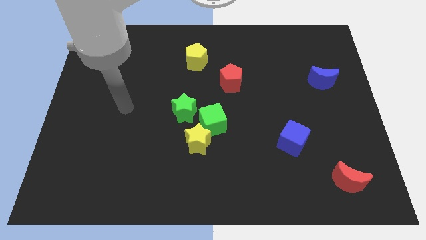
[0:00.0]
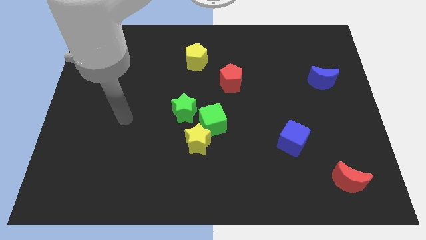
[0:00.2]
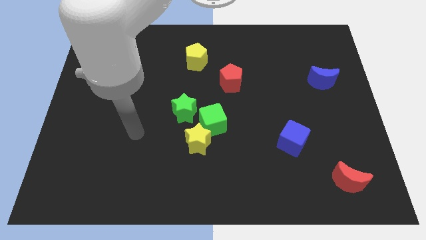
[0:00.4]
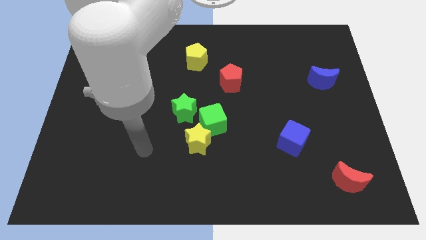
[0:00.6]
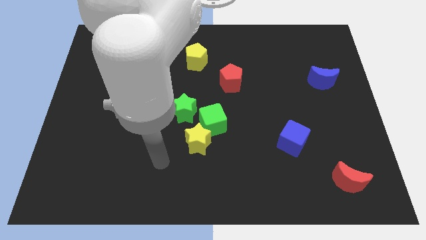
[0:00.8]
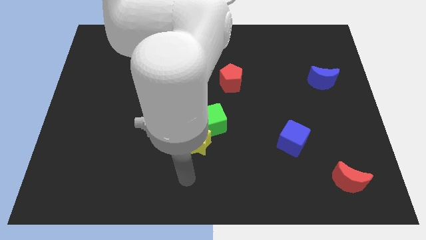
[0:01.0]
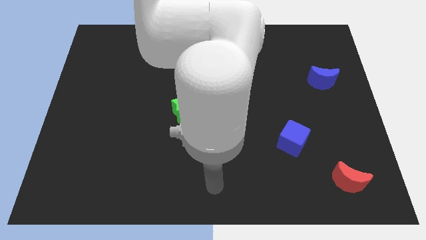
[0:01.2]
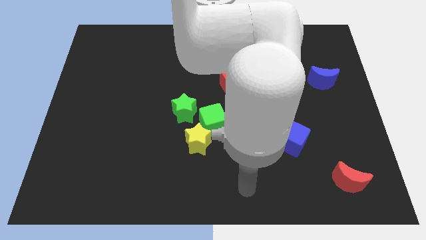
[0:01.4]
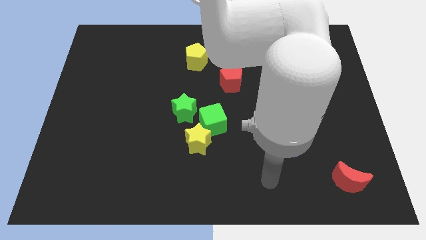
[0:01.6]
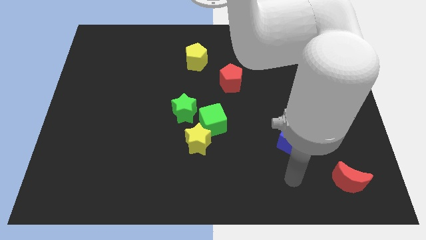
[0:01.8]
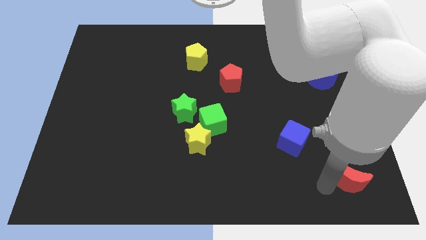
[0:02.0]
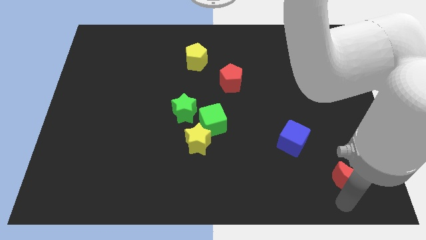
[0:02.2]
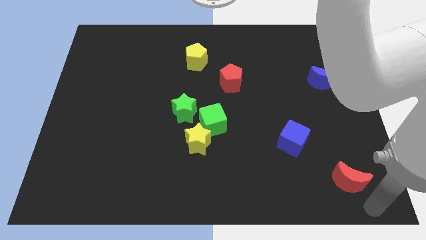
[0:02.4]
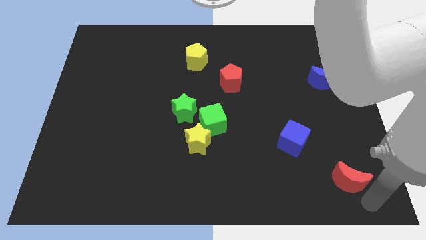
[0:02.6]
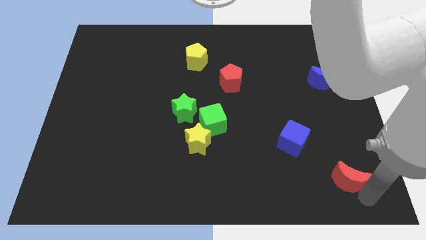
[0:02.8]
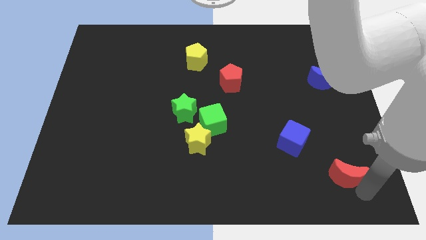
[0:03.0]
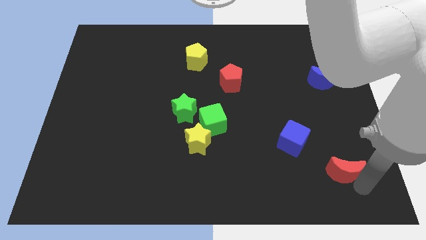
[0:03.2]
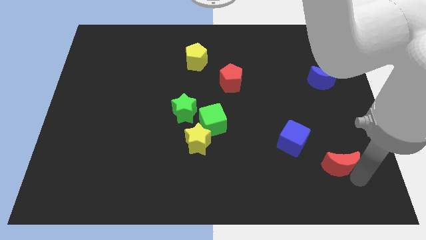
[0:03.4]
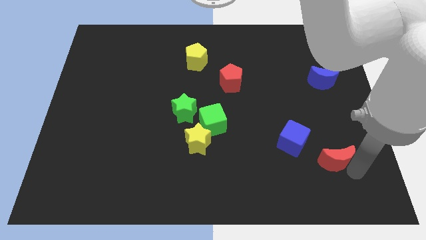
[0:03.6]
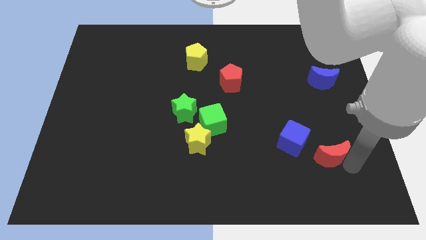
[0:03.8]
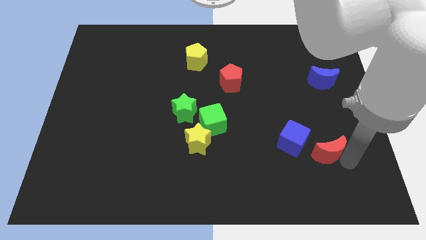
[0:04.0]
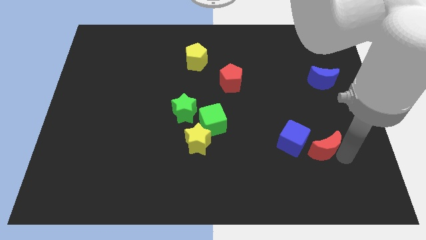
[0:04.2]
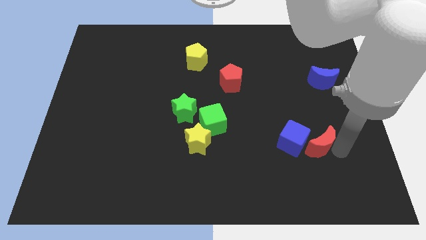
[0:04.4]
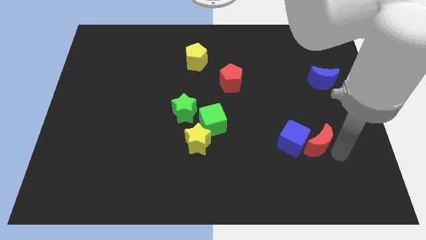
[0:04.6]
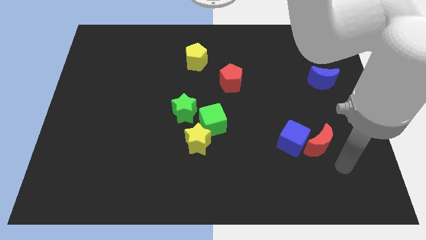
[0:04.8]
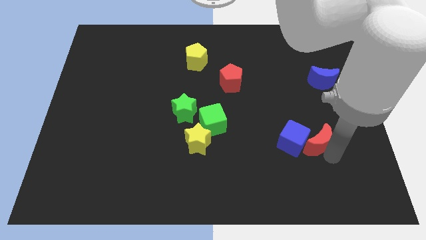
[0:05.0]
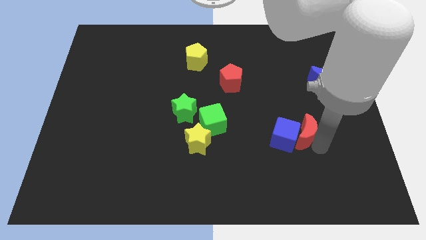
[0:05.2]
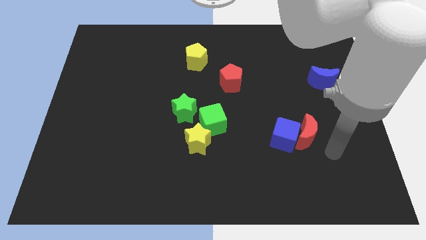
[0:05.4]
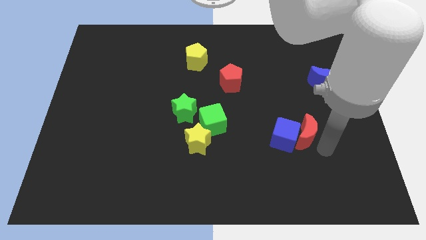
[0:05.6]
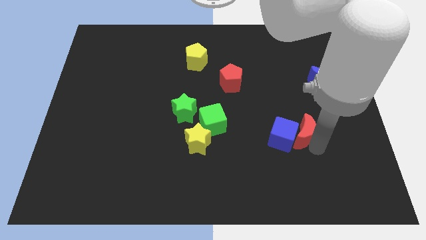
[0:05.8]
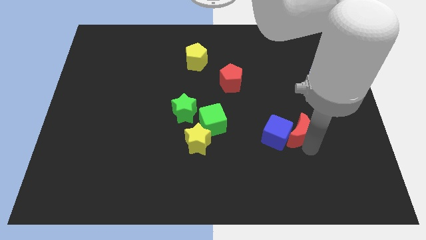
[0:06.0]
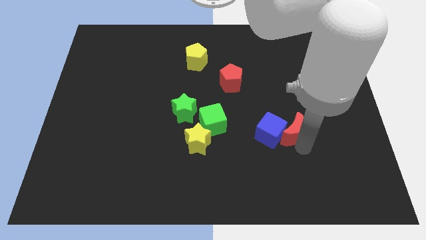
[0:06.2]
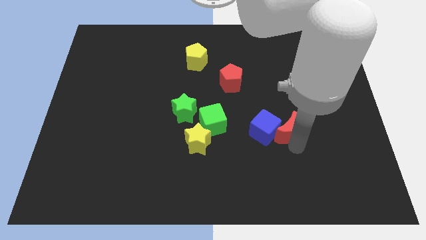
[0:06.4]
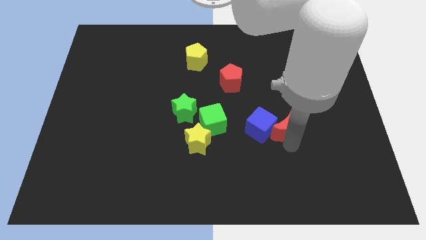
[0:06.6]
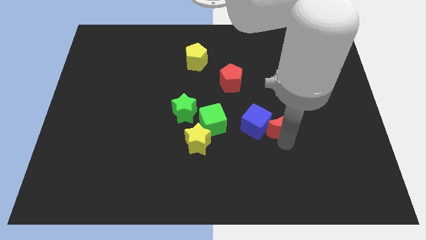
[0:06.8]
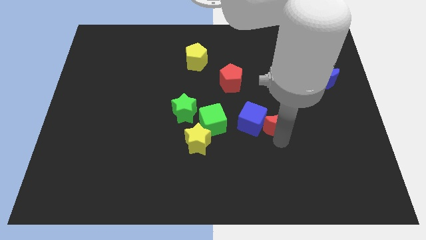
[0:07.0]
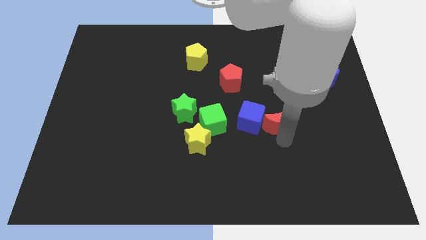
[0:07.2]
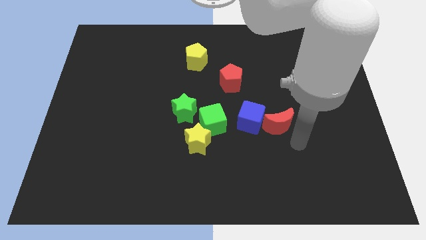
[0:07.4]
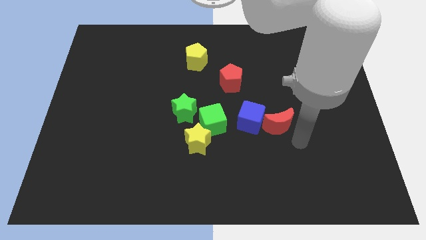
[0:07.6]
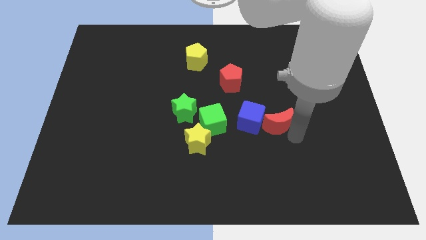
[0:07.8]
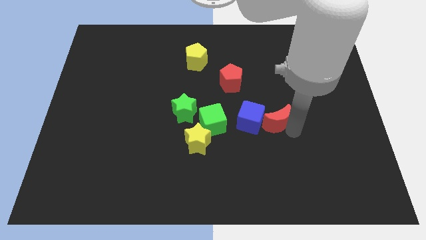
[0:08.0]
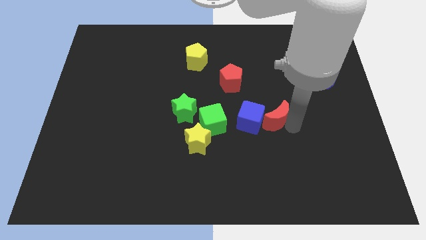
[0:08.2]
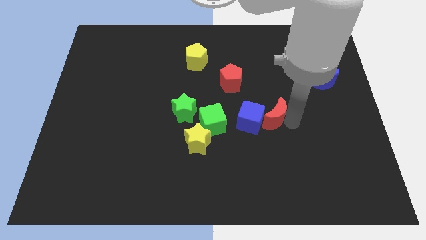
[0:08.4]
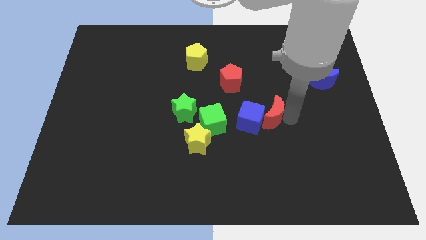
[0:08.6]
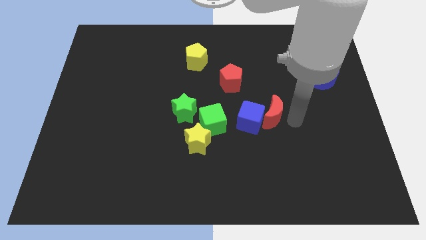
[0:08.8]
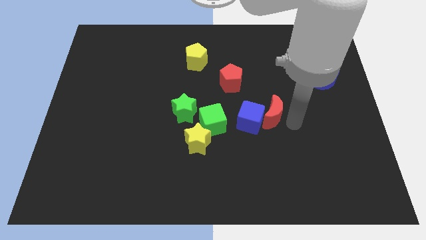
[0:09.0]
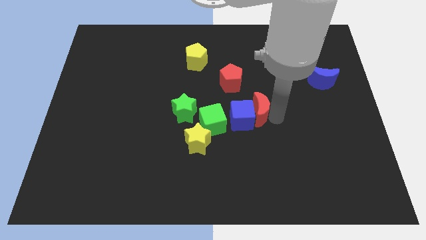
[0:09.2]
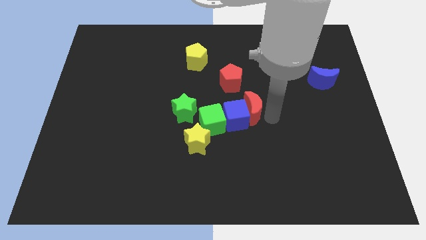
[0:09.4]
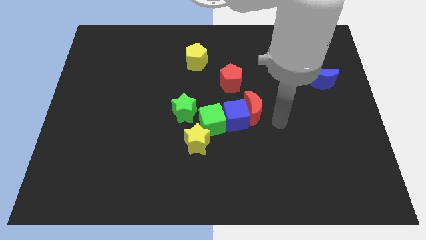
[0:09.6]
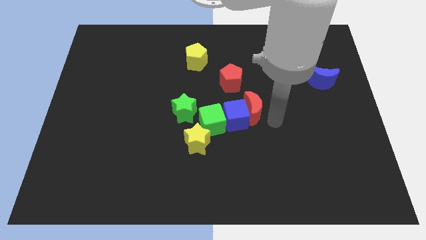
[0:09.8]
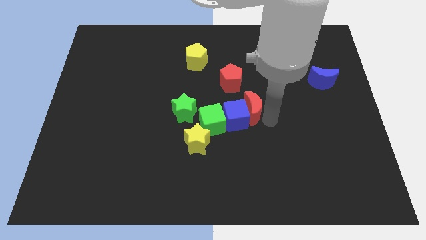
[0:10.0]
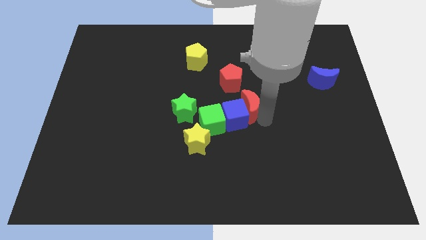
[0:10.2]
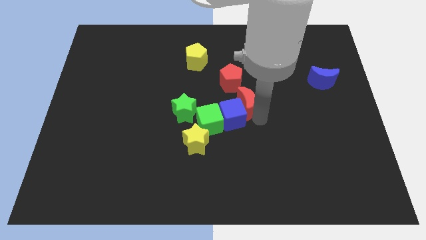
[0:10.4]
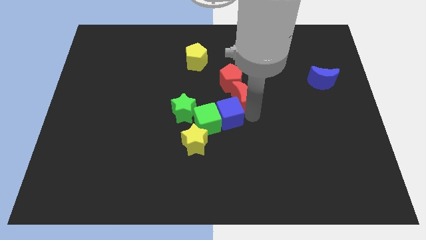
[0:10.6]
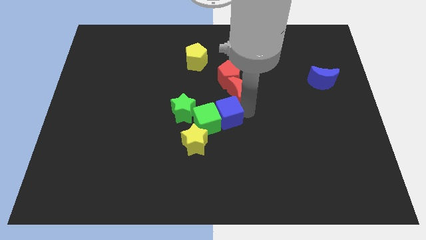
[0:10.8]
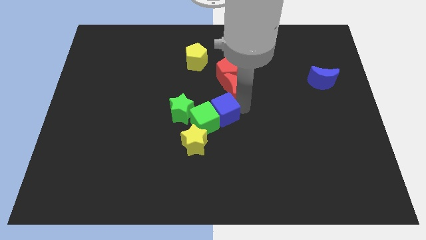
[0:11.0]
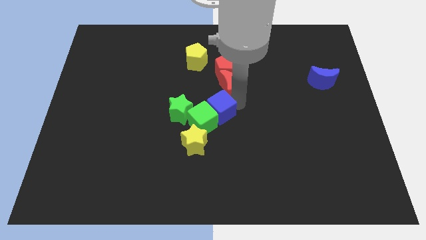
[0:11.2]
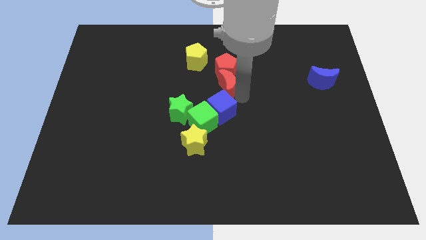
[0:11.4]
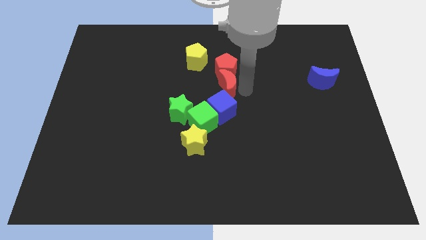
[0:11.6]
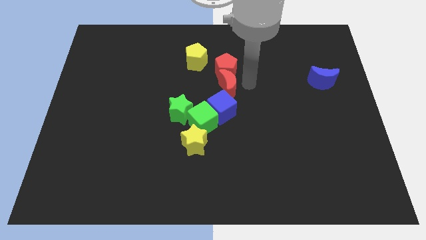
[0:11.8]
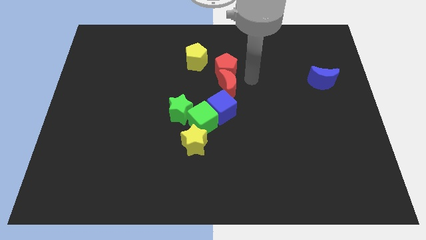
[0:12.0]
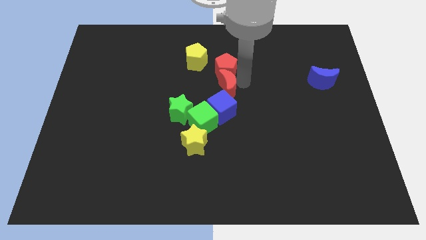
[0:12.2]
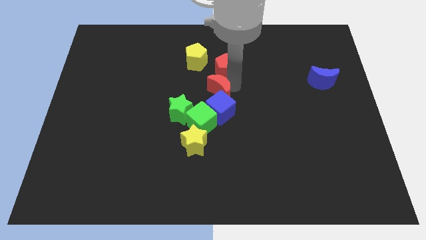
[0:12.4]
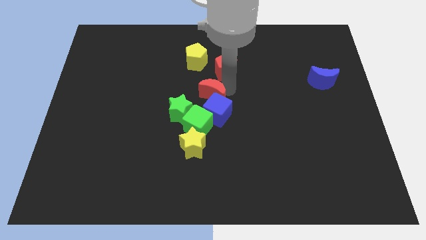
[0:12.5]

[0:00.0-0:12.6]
push the red moon to the bottom side of the yellow pentagon

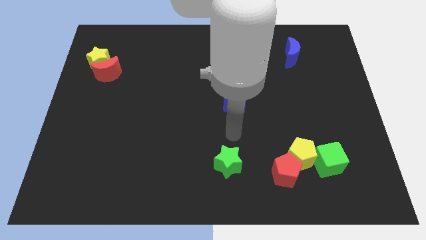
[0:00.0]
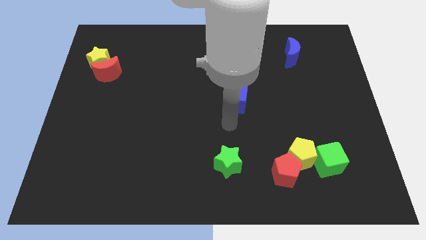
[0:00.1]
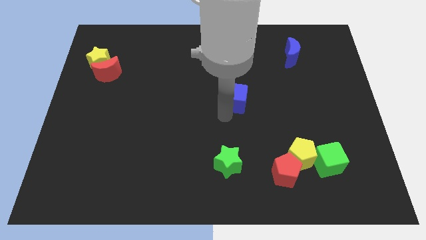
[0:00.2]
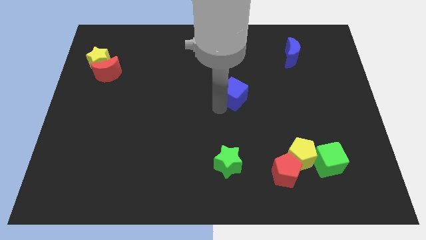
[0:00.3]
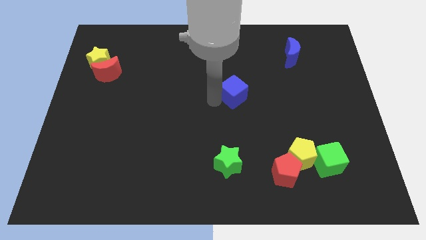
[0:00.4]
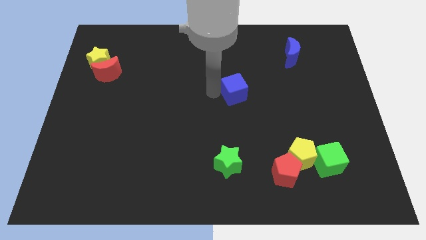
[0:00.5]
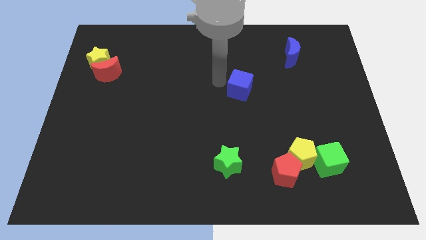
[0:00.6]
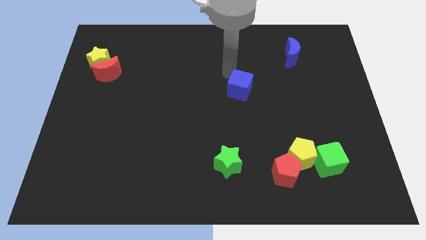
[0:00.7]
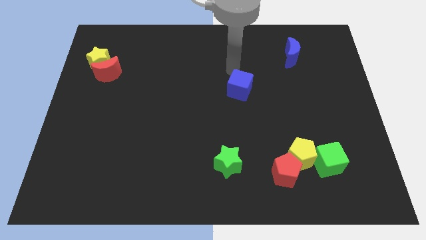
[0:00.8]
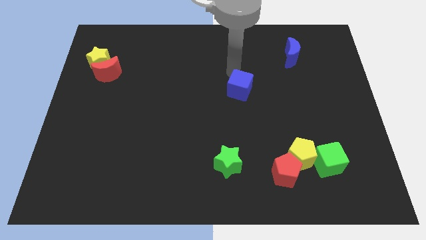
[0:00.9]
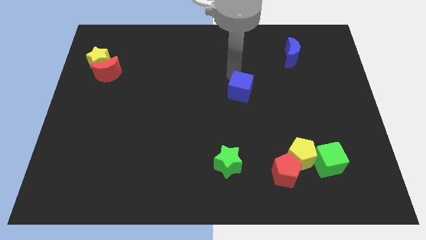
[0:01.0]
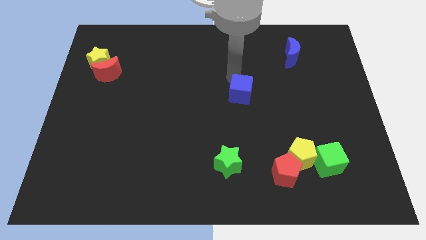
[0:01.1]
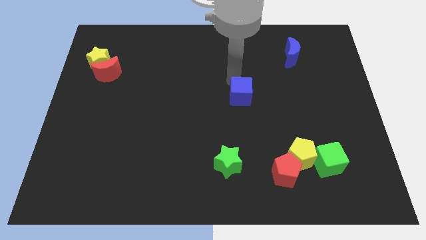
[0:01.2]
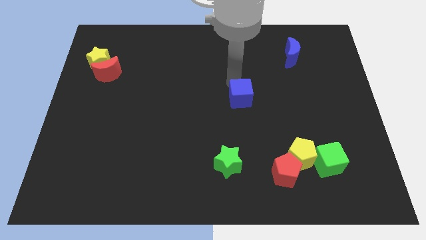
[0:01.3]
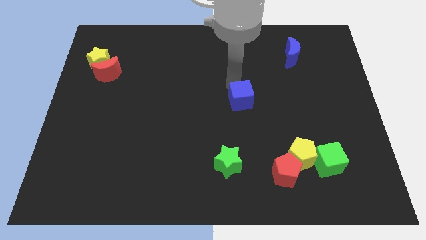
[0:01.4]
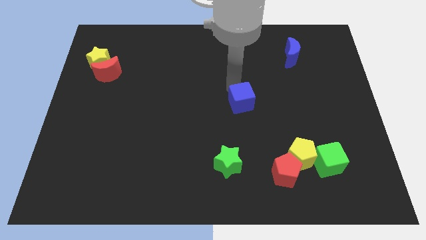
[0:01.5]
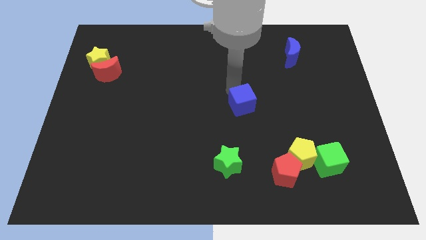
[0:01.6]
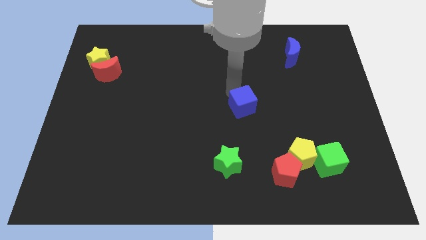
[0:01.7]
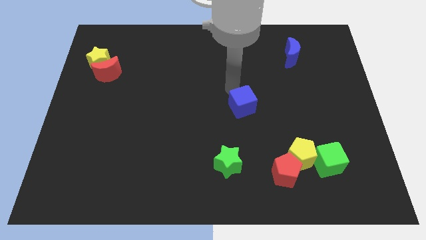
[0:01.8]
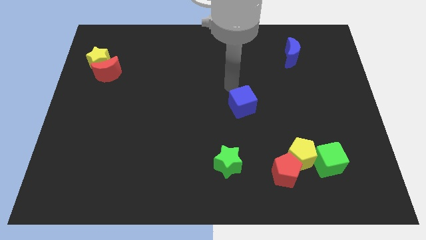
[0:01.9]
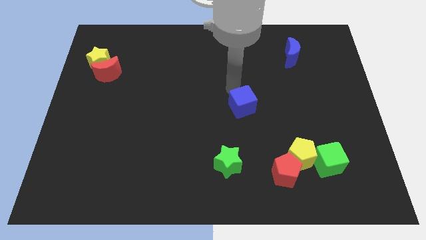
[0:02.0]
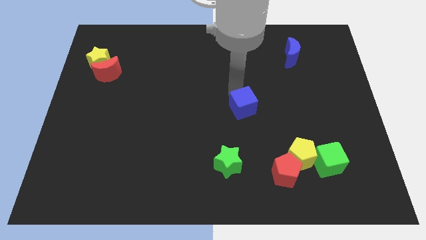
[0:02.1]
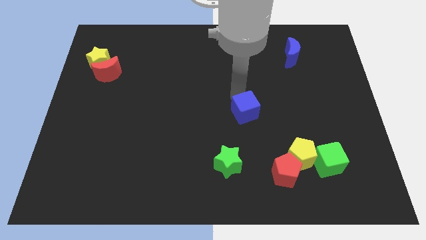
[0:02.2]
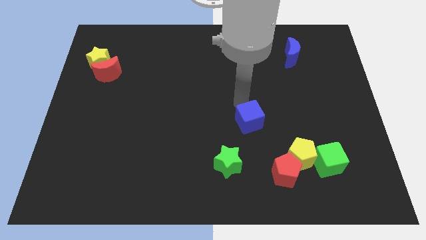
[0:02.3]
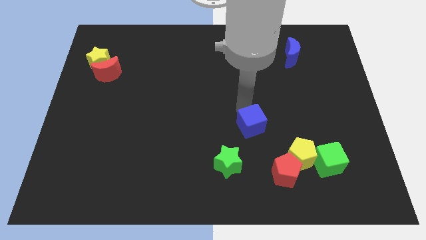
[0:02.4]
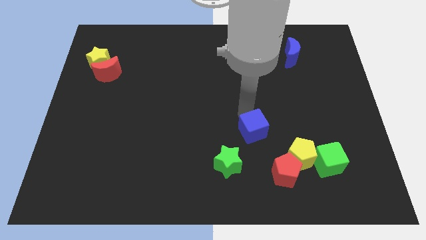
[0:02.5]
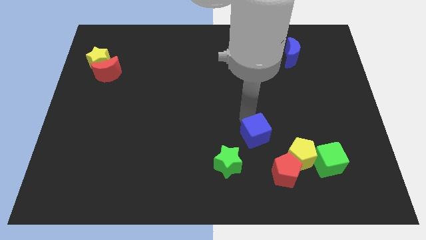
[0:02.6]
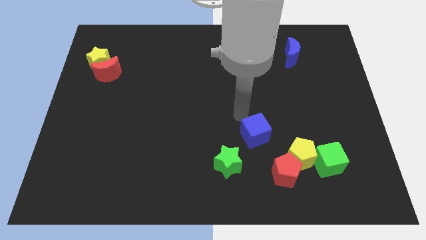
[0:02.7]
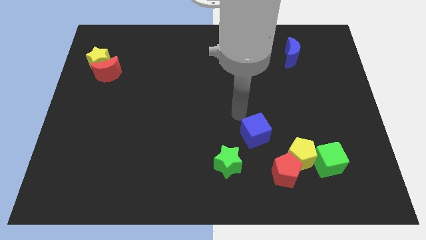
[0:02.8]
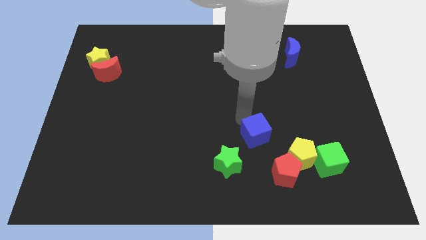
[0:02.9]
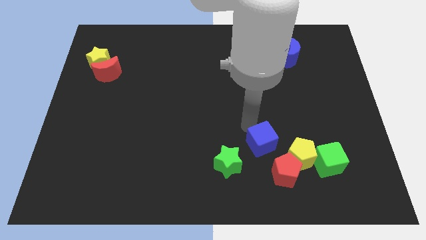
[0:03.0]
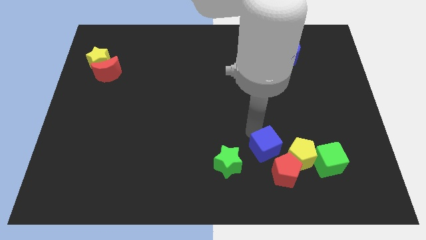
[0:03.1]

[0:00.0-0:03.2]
put the blue cube left of the green cube
